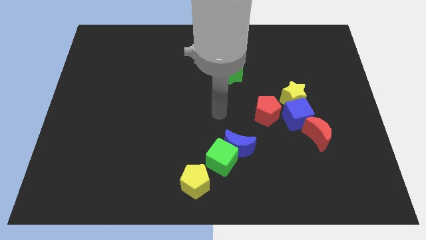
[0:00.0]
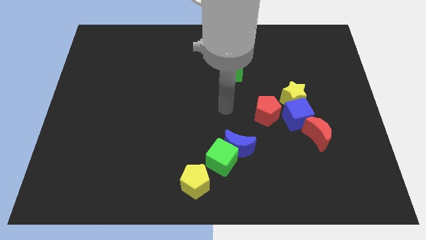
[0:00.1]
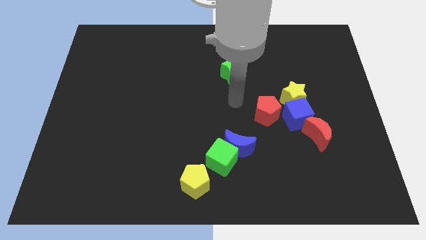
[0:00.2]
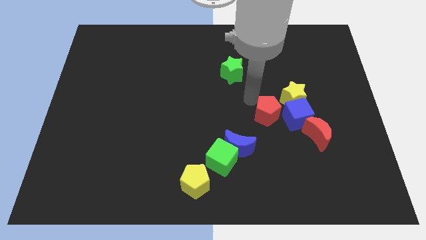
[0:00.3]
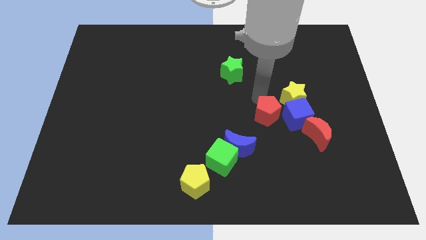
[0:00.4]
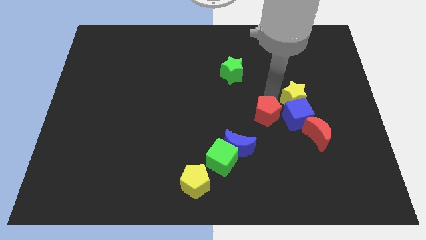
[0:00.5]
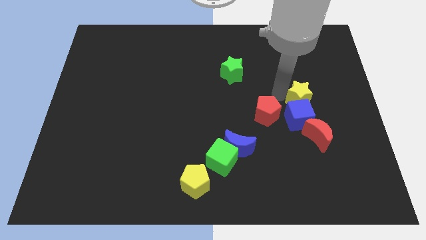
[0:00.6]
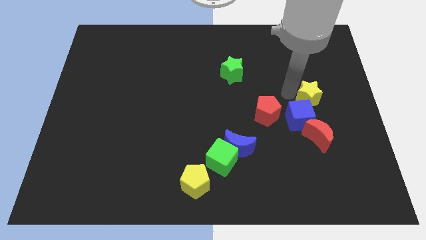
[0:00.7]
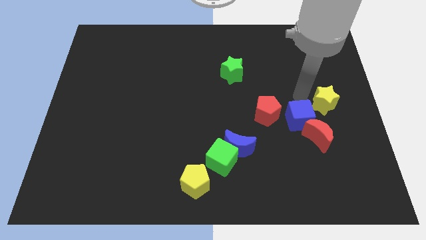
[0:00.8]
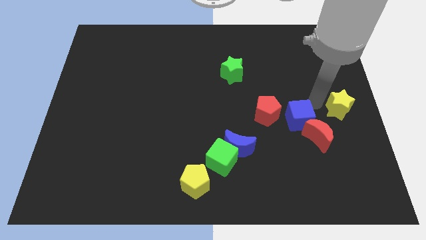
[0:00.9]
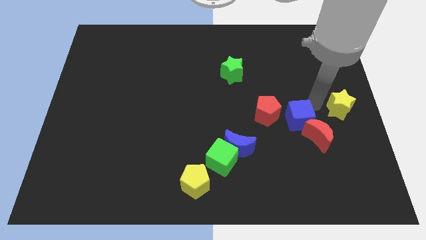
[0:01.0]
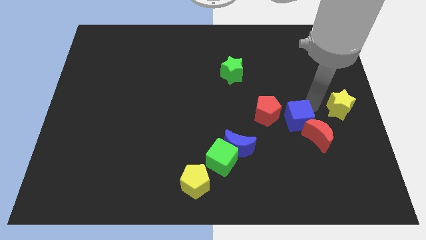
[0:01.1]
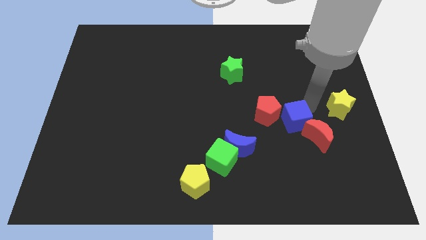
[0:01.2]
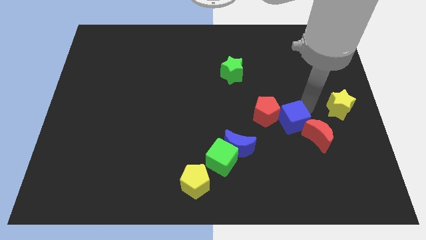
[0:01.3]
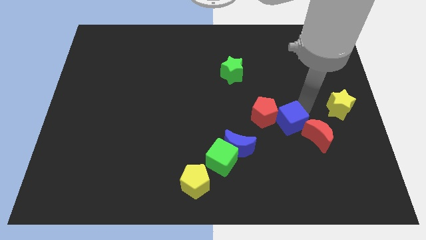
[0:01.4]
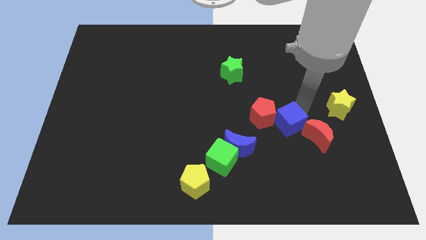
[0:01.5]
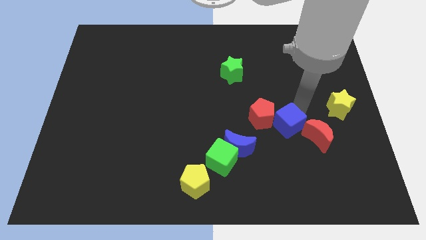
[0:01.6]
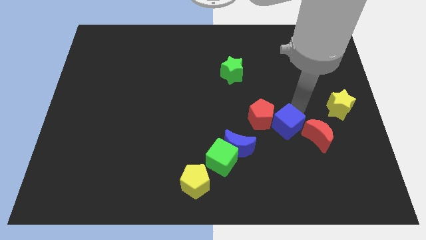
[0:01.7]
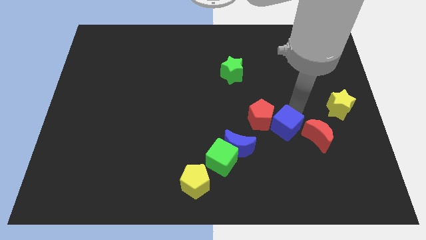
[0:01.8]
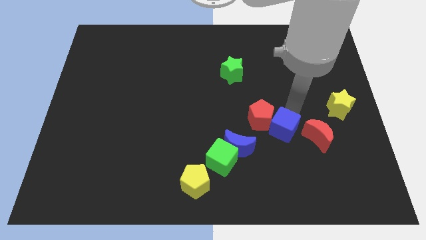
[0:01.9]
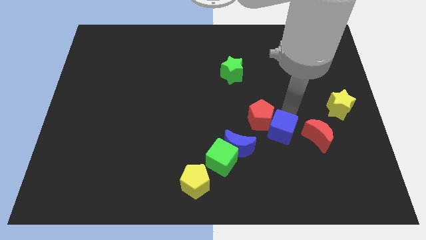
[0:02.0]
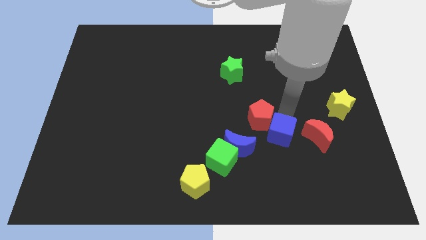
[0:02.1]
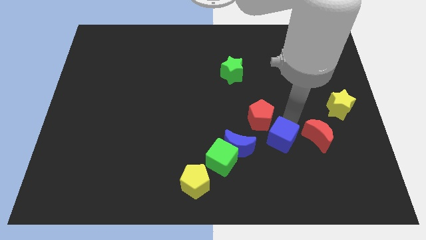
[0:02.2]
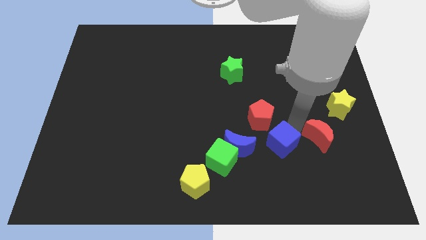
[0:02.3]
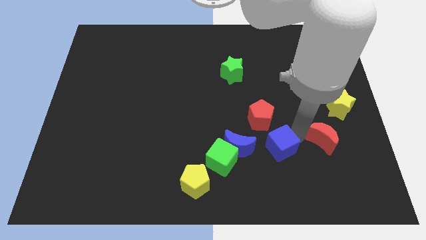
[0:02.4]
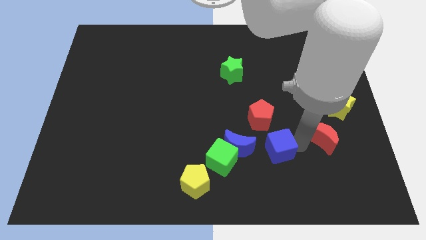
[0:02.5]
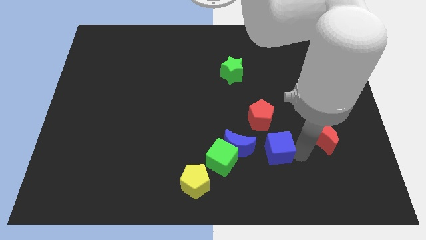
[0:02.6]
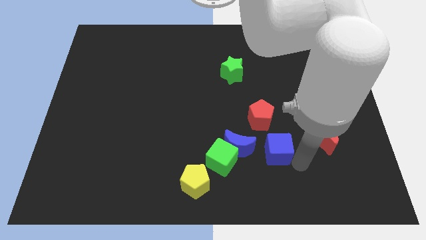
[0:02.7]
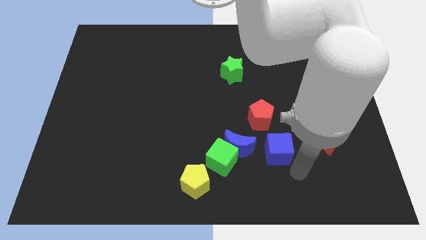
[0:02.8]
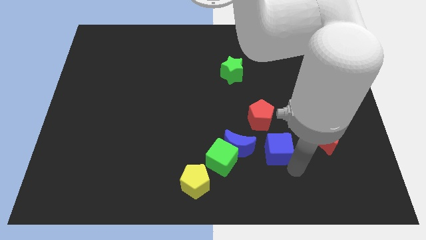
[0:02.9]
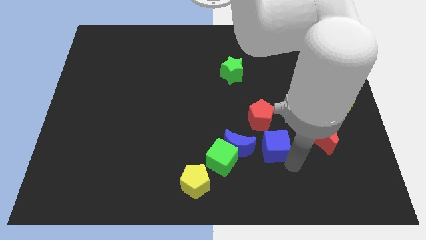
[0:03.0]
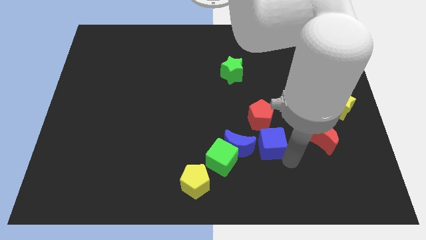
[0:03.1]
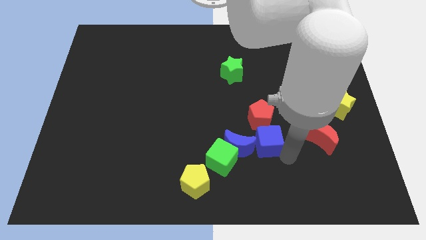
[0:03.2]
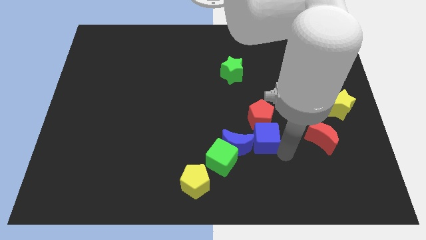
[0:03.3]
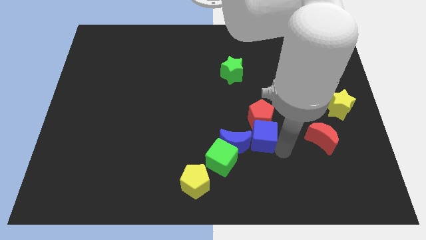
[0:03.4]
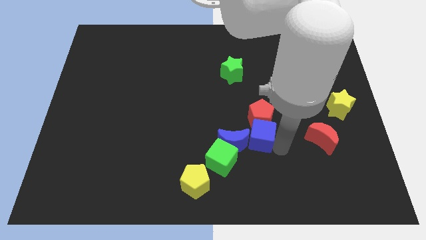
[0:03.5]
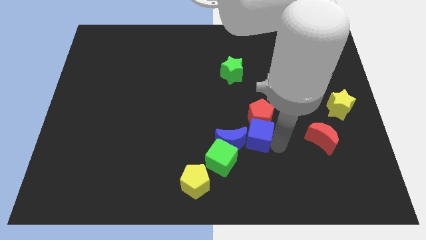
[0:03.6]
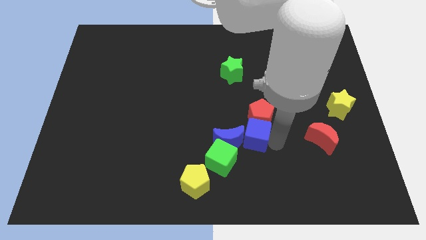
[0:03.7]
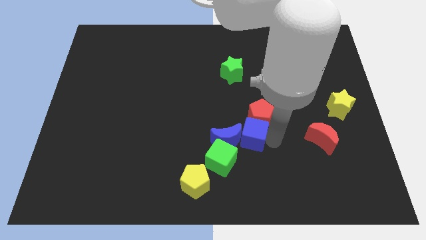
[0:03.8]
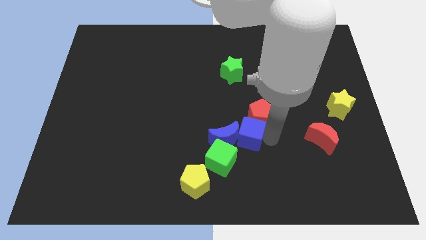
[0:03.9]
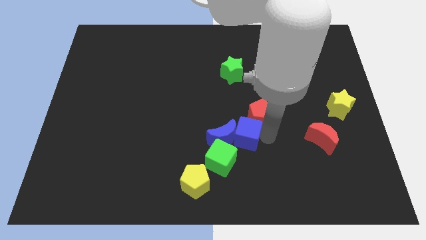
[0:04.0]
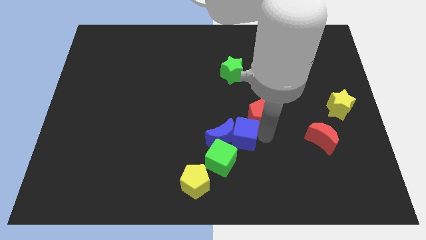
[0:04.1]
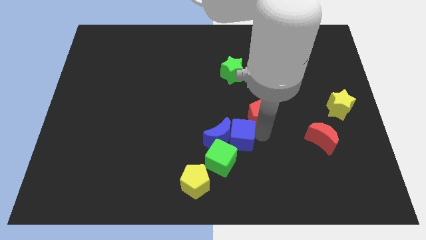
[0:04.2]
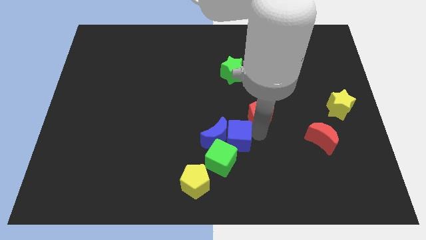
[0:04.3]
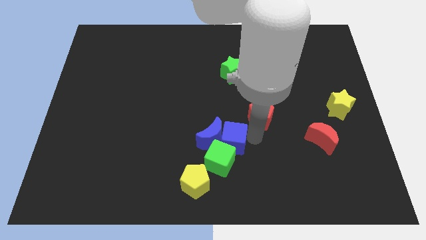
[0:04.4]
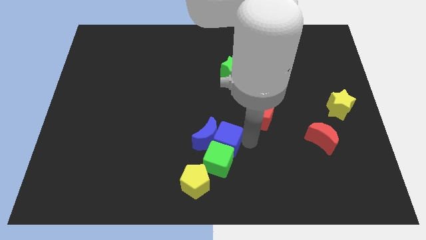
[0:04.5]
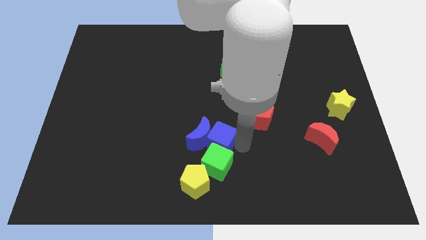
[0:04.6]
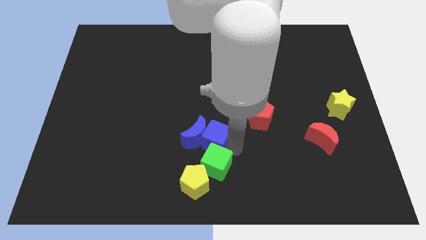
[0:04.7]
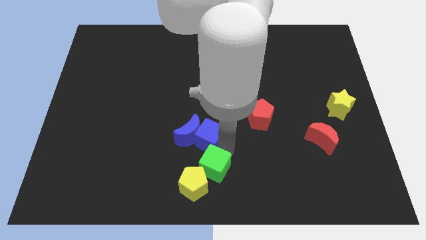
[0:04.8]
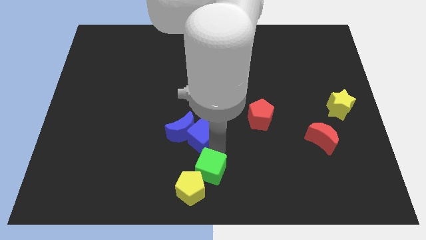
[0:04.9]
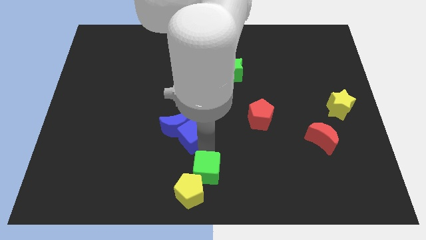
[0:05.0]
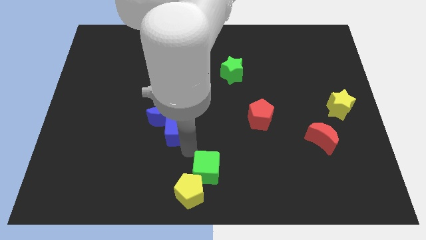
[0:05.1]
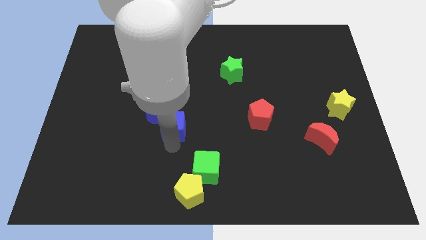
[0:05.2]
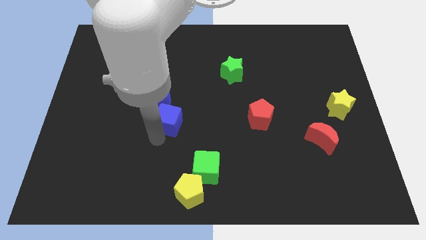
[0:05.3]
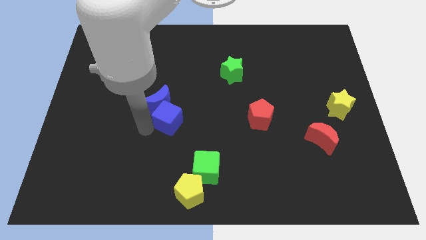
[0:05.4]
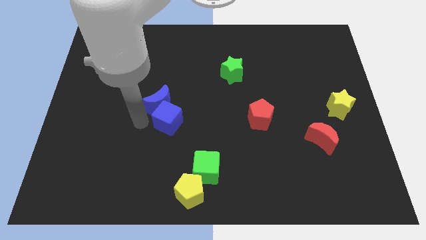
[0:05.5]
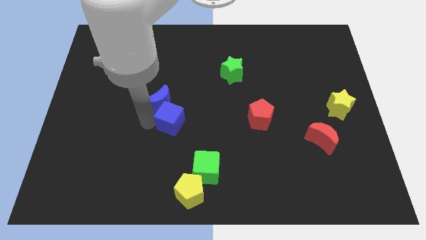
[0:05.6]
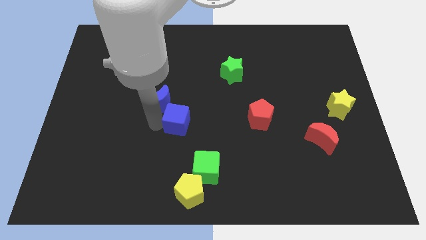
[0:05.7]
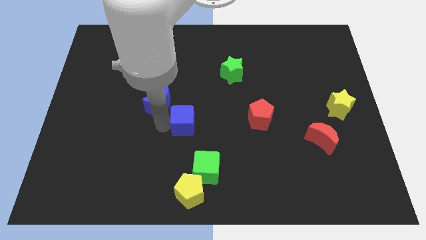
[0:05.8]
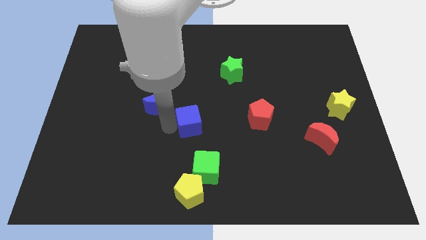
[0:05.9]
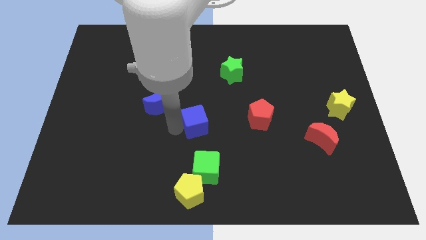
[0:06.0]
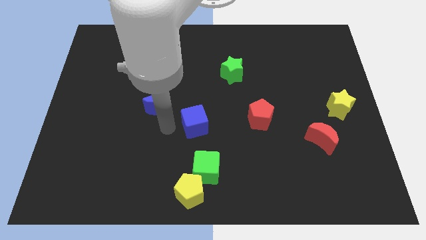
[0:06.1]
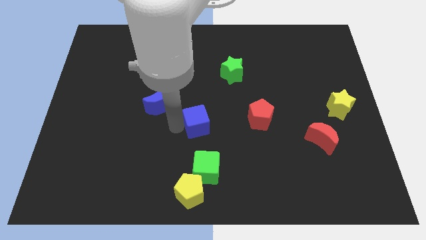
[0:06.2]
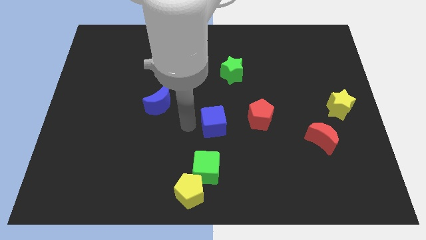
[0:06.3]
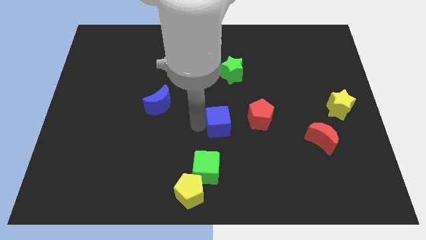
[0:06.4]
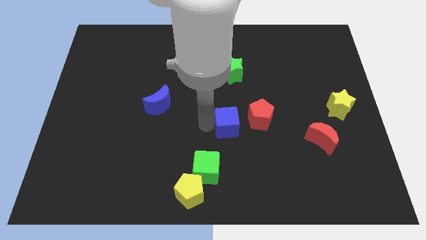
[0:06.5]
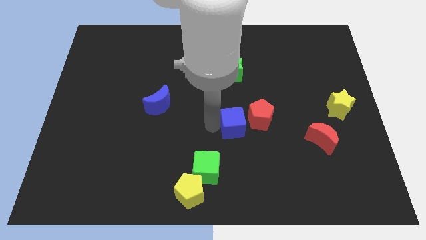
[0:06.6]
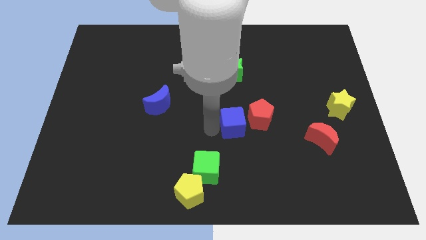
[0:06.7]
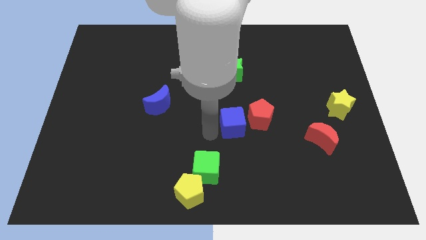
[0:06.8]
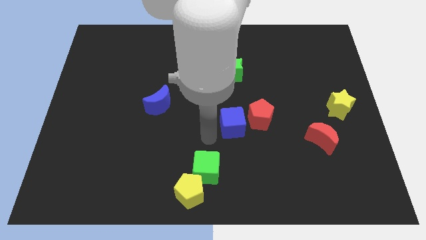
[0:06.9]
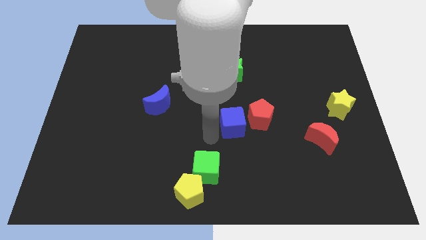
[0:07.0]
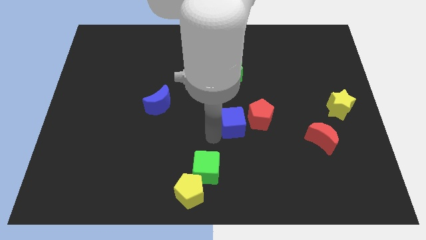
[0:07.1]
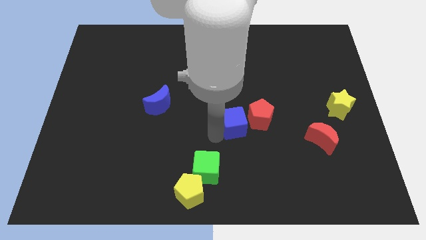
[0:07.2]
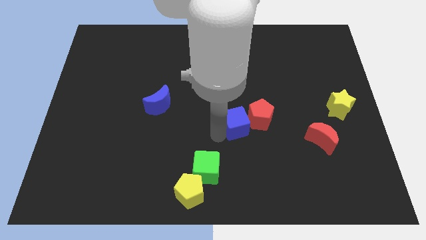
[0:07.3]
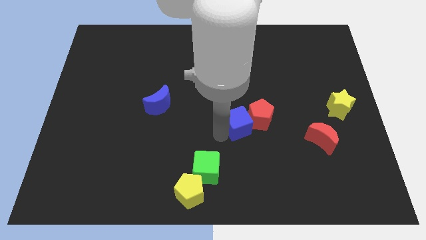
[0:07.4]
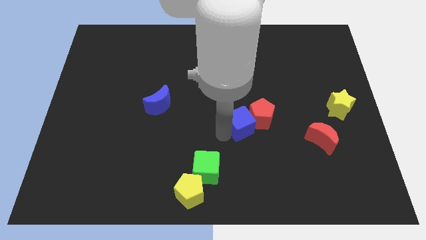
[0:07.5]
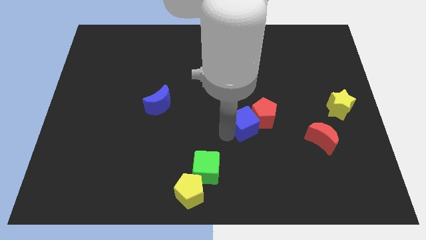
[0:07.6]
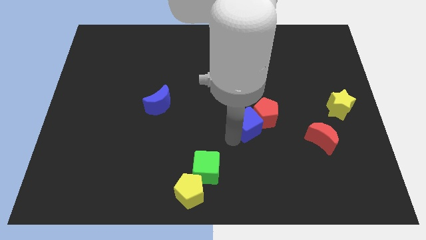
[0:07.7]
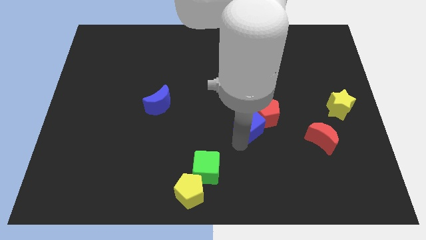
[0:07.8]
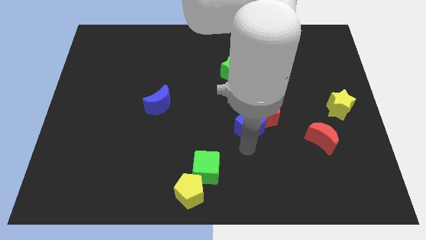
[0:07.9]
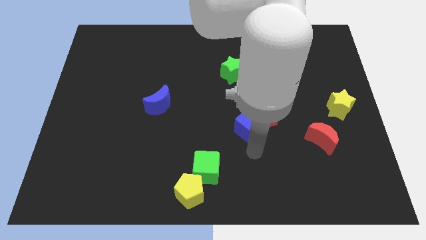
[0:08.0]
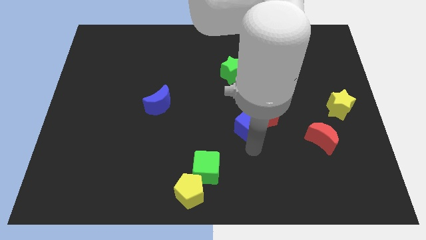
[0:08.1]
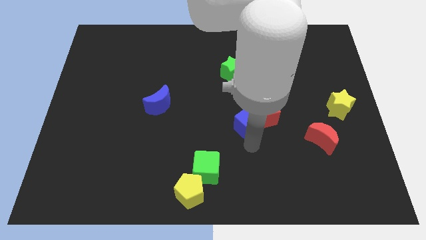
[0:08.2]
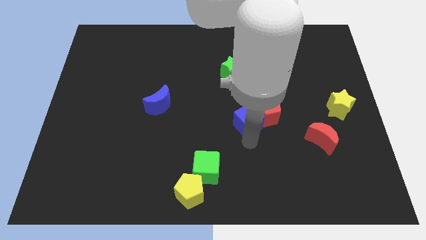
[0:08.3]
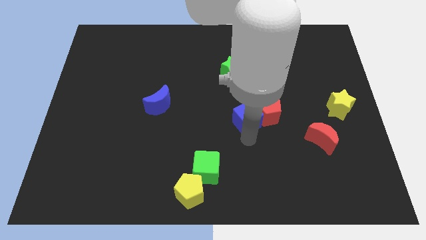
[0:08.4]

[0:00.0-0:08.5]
push the blue cube diagonally up and to the left of the red pentagon
